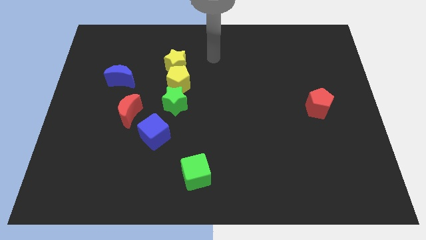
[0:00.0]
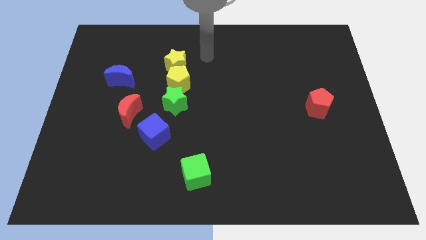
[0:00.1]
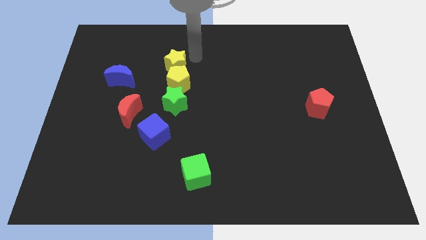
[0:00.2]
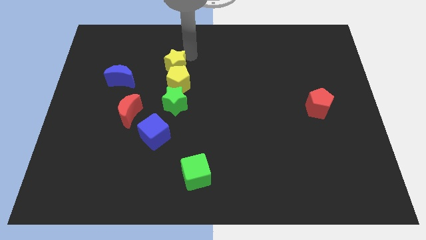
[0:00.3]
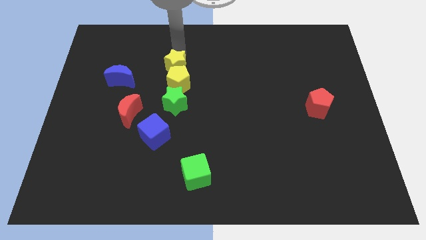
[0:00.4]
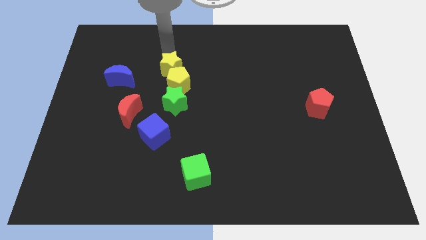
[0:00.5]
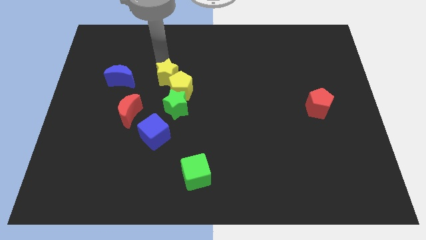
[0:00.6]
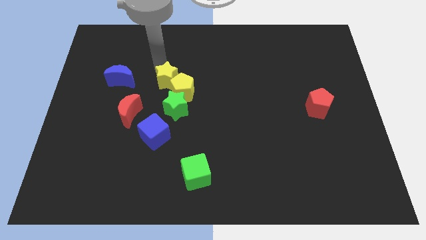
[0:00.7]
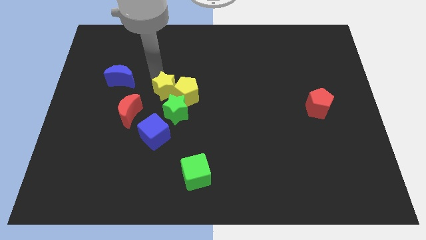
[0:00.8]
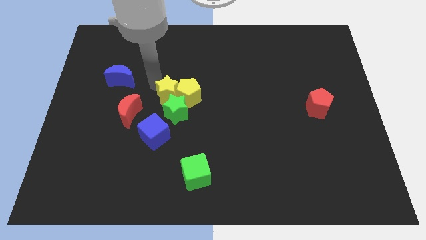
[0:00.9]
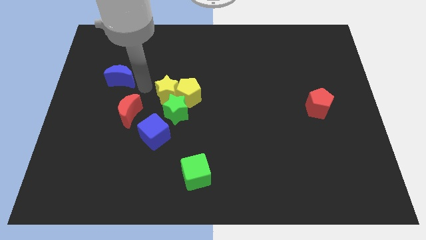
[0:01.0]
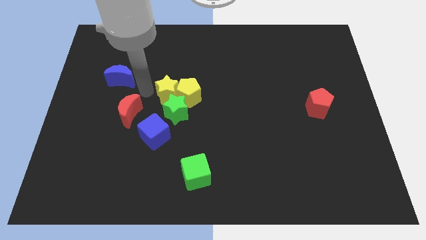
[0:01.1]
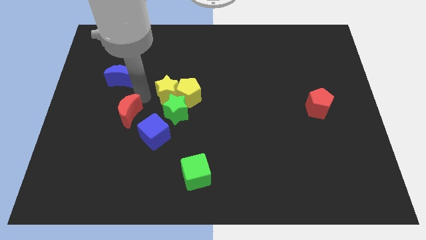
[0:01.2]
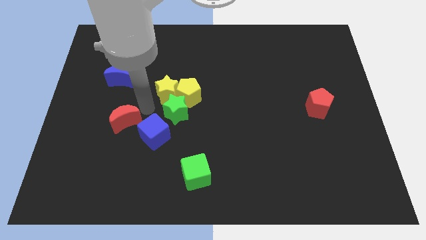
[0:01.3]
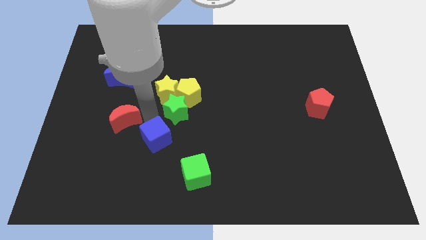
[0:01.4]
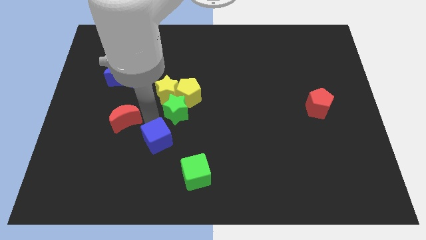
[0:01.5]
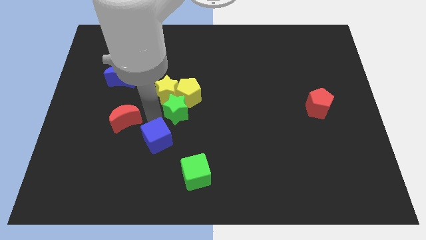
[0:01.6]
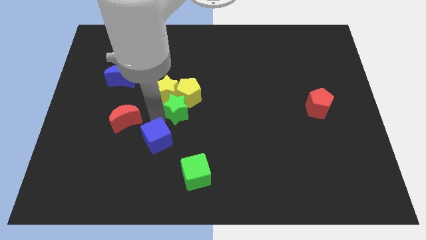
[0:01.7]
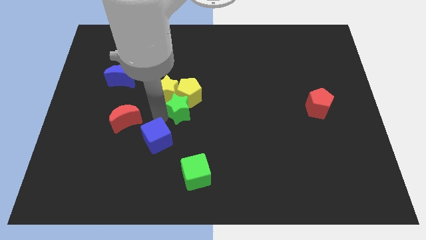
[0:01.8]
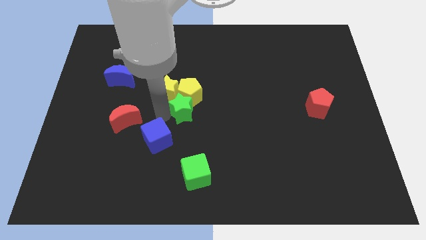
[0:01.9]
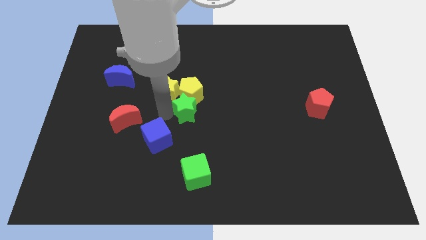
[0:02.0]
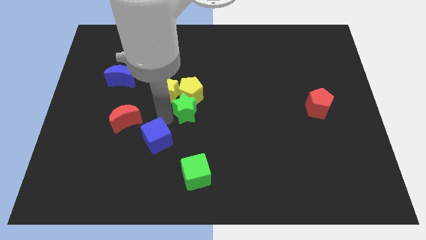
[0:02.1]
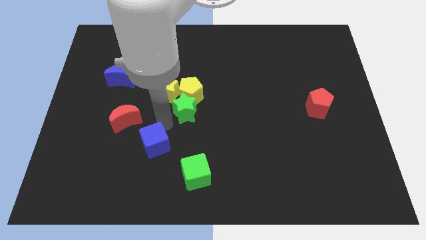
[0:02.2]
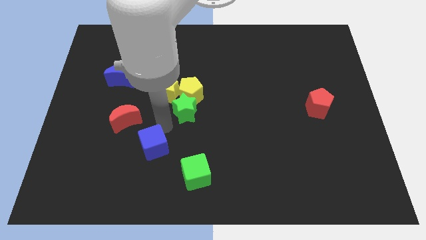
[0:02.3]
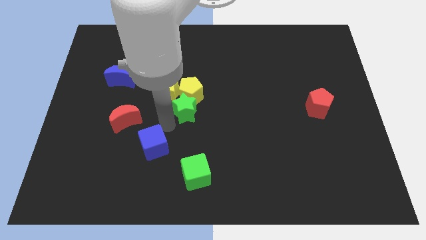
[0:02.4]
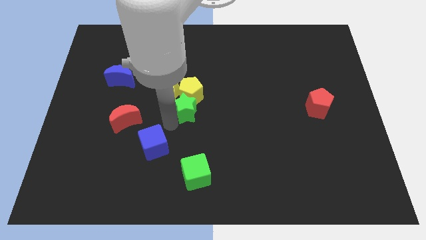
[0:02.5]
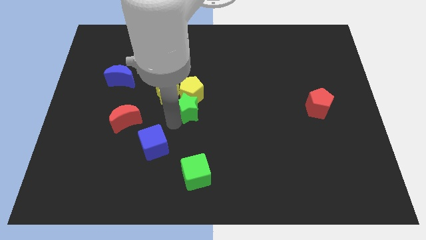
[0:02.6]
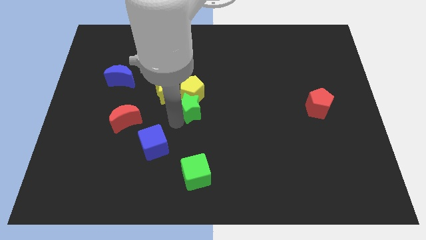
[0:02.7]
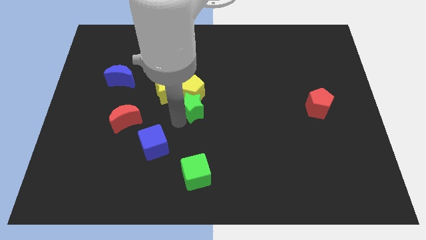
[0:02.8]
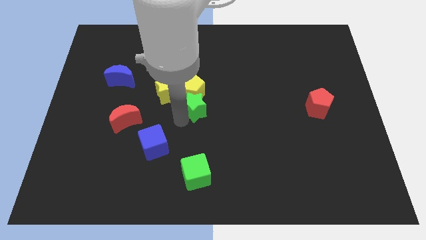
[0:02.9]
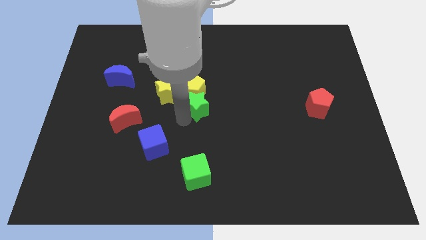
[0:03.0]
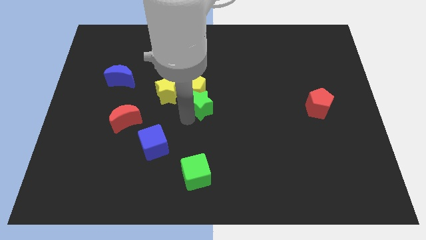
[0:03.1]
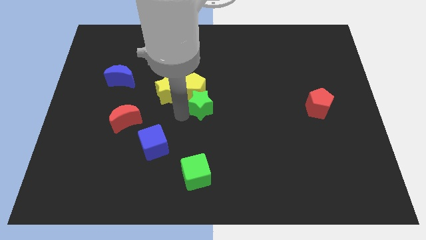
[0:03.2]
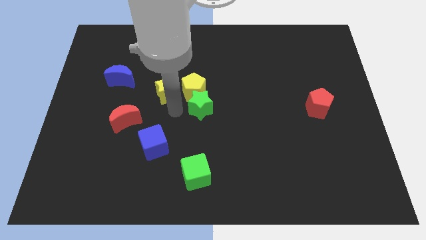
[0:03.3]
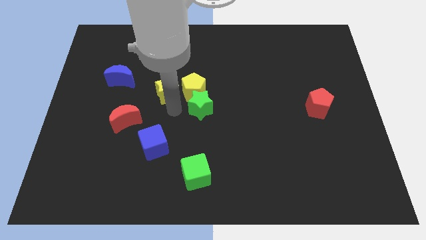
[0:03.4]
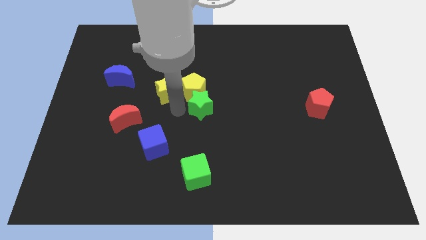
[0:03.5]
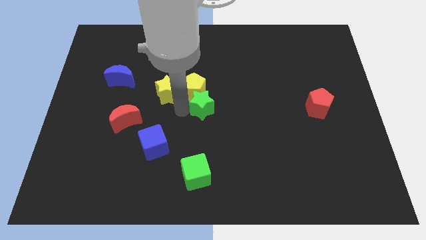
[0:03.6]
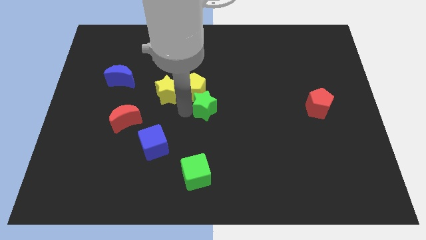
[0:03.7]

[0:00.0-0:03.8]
slide the green star slightly right

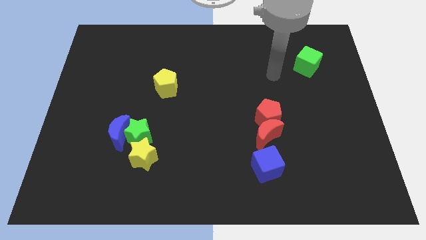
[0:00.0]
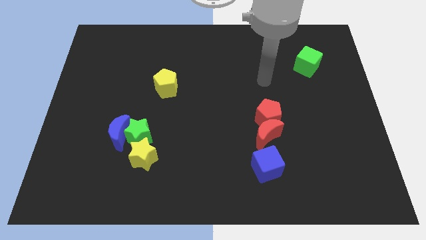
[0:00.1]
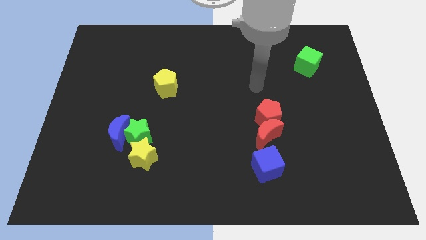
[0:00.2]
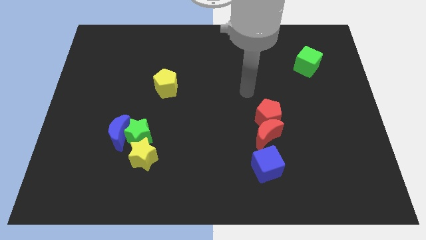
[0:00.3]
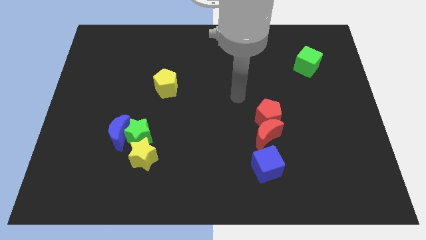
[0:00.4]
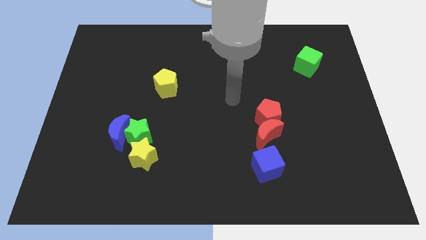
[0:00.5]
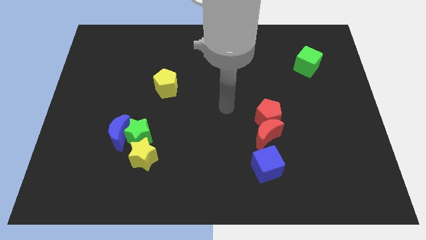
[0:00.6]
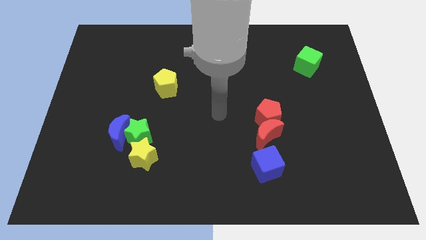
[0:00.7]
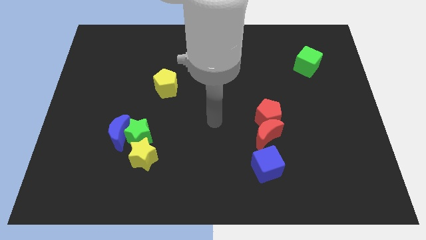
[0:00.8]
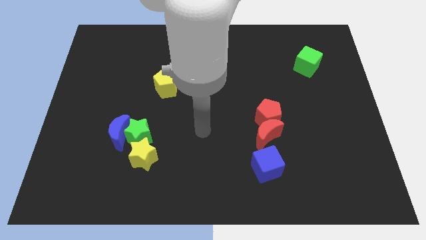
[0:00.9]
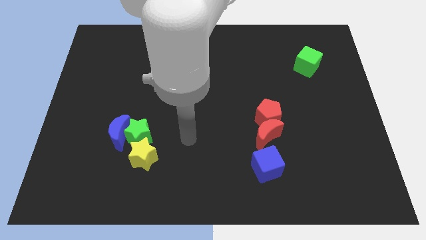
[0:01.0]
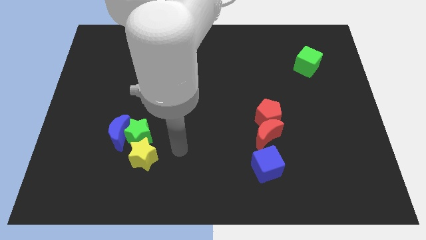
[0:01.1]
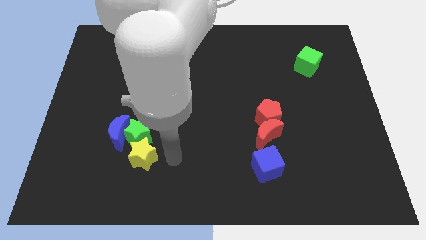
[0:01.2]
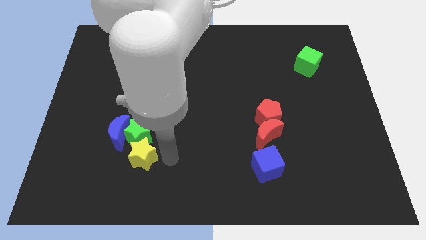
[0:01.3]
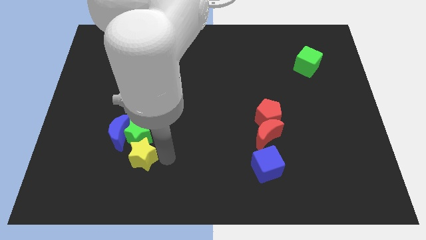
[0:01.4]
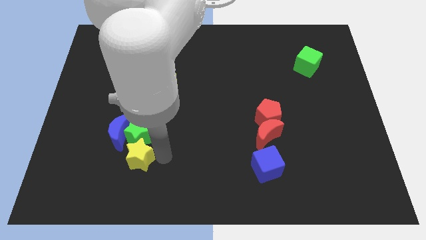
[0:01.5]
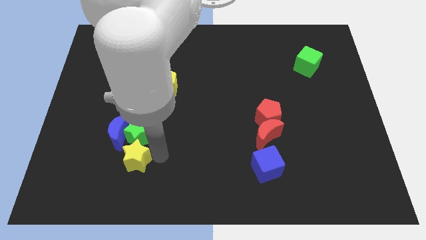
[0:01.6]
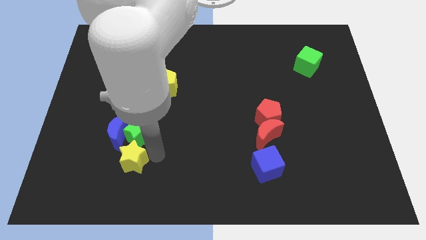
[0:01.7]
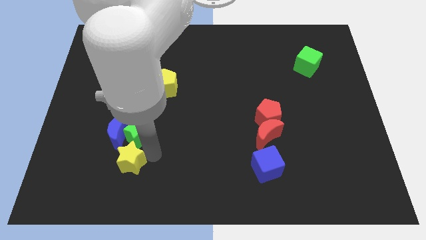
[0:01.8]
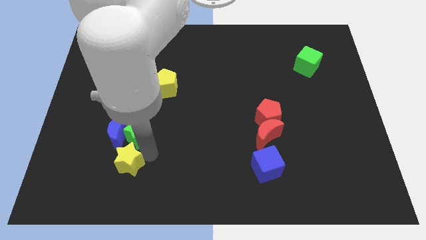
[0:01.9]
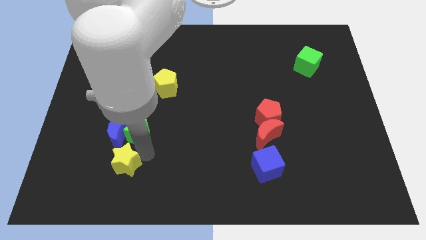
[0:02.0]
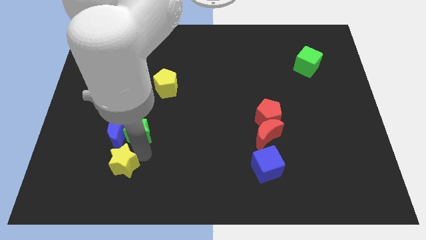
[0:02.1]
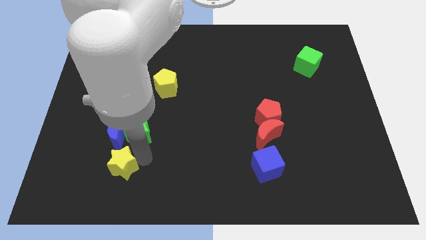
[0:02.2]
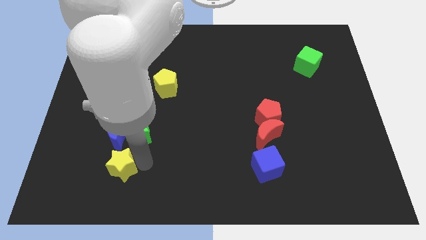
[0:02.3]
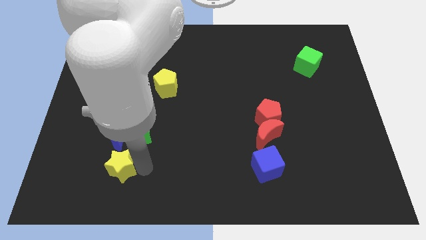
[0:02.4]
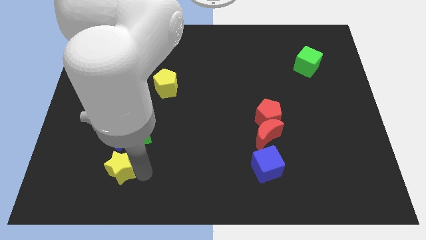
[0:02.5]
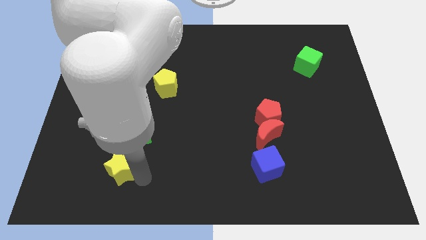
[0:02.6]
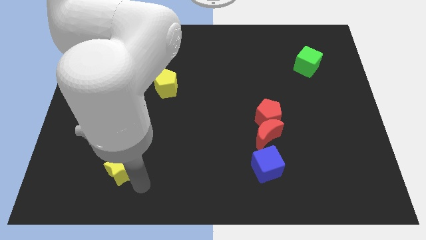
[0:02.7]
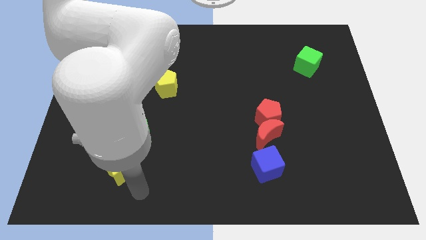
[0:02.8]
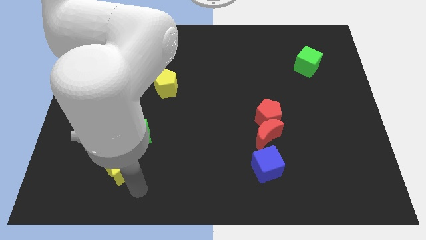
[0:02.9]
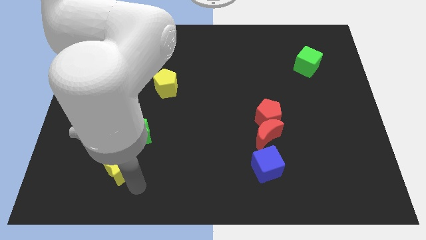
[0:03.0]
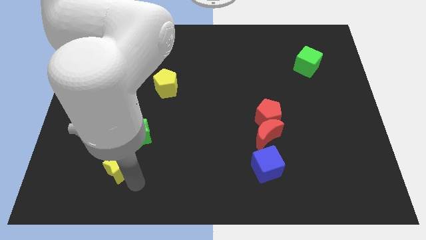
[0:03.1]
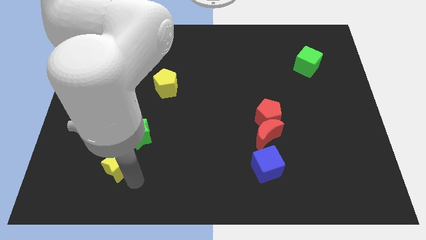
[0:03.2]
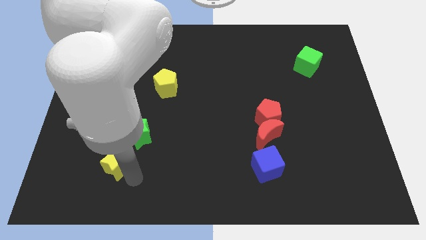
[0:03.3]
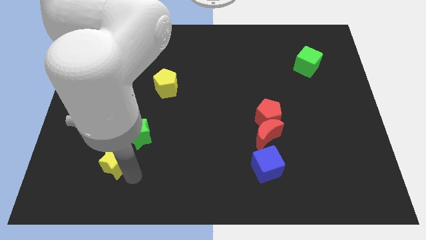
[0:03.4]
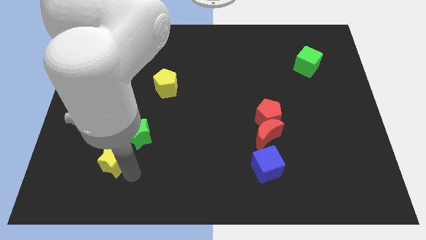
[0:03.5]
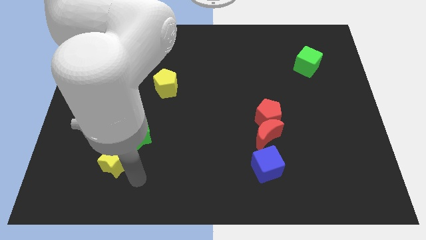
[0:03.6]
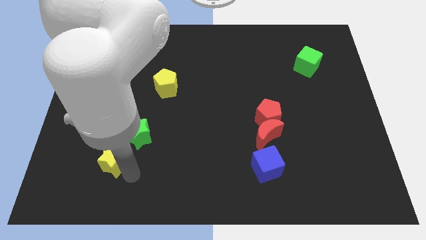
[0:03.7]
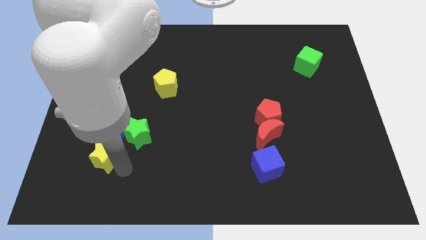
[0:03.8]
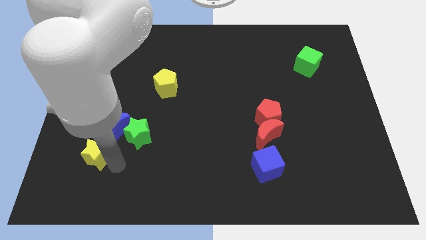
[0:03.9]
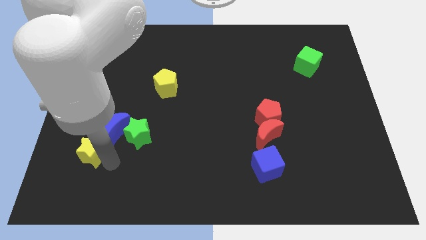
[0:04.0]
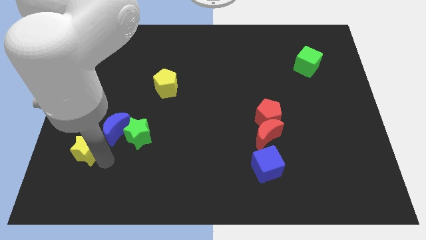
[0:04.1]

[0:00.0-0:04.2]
move the yellow star slightly upwards and to the left
